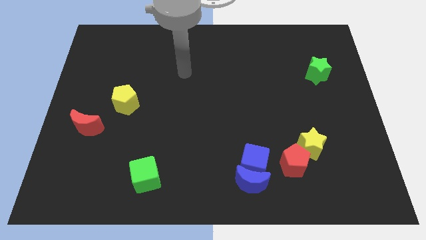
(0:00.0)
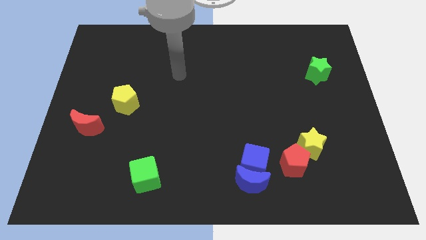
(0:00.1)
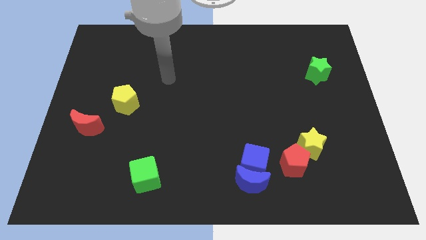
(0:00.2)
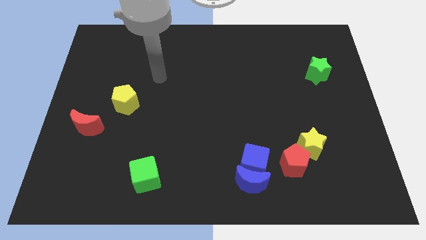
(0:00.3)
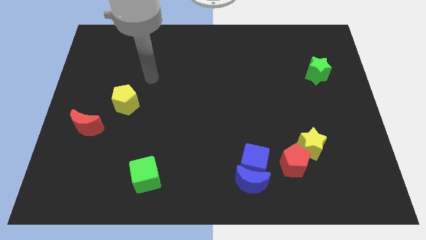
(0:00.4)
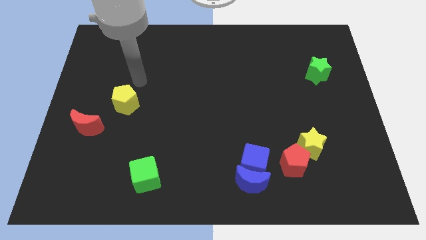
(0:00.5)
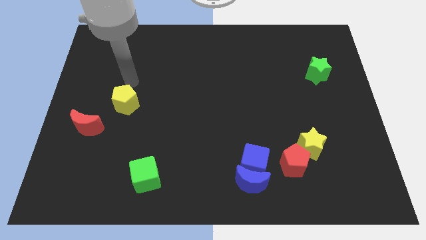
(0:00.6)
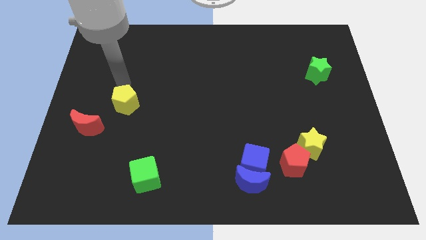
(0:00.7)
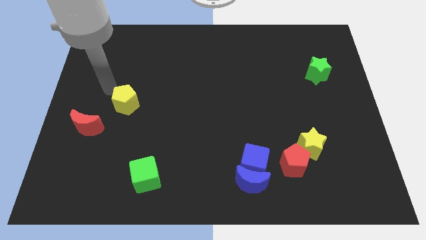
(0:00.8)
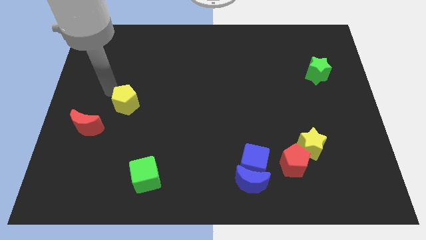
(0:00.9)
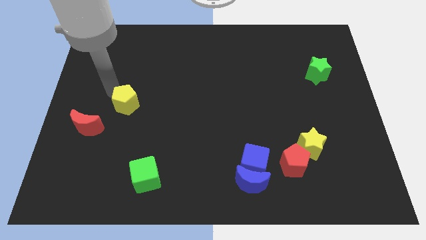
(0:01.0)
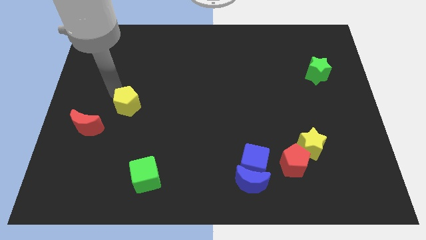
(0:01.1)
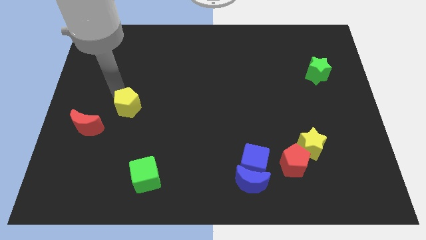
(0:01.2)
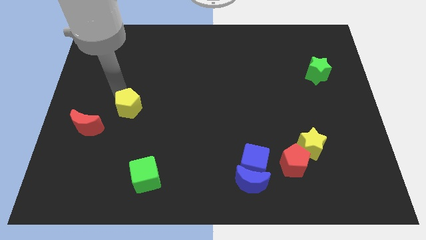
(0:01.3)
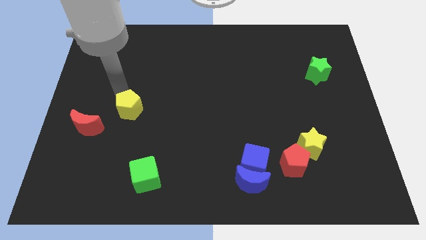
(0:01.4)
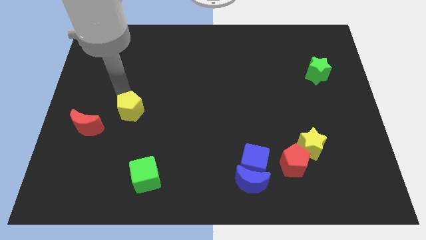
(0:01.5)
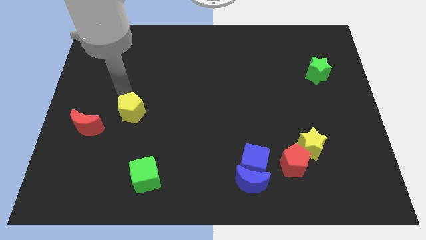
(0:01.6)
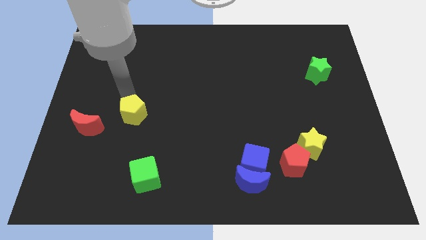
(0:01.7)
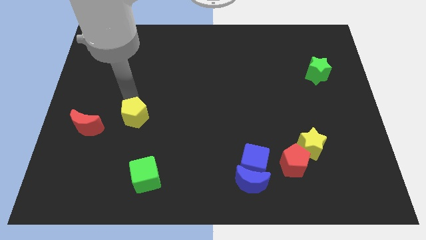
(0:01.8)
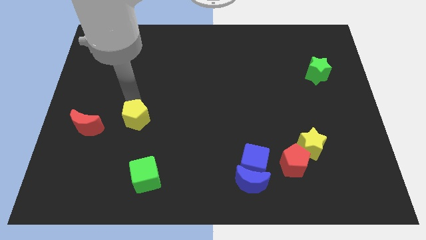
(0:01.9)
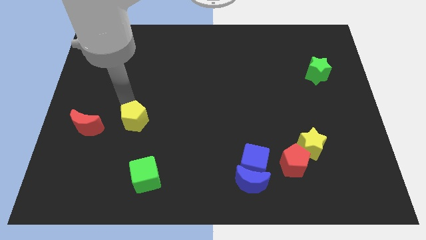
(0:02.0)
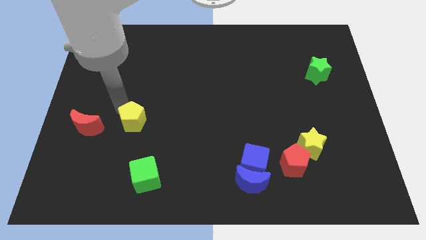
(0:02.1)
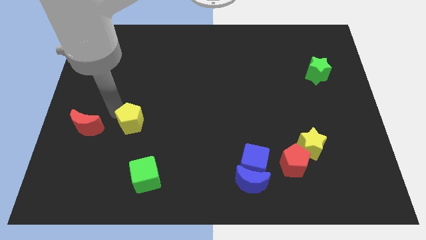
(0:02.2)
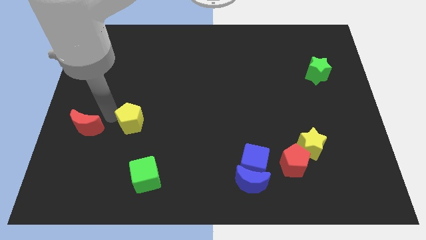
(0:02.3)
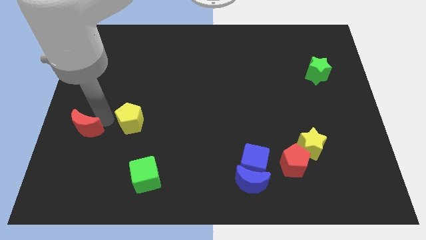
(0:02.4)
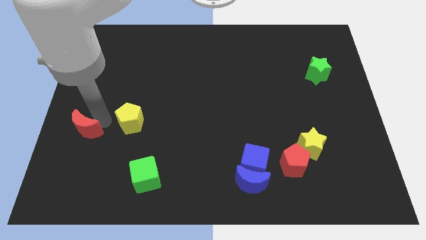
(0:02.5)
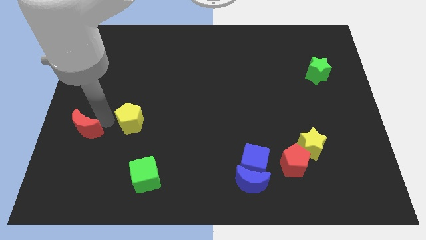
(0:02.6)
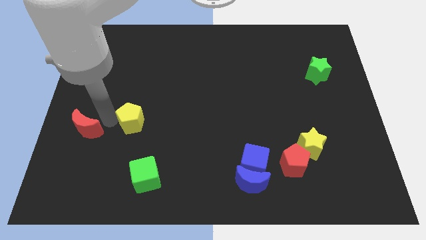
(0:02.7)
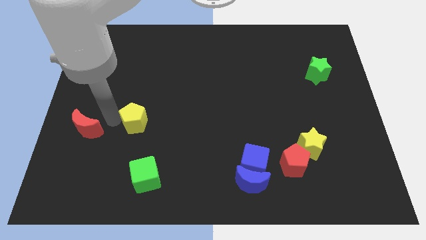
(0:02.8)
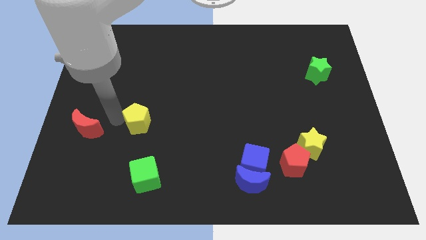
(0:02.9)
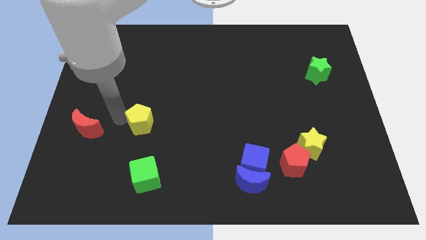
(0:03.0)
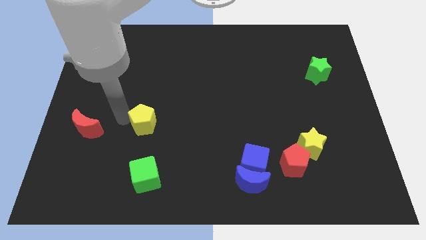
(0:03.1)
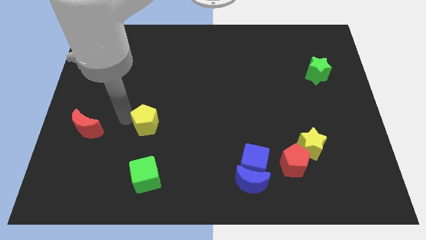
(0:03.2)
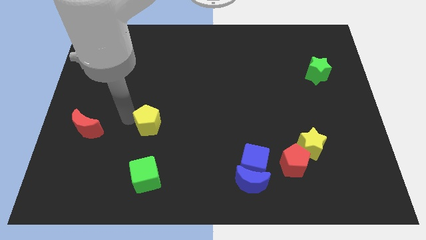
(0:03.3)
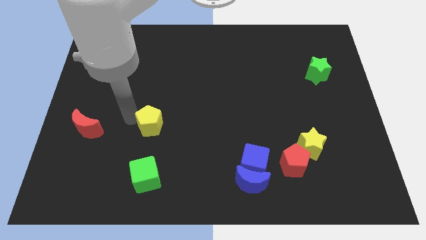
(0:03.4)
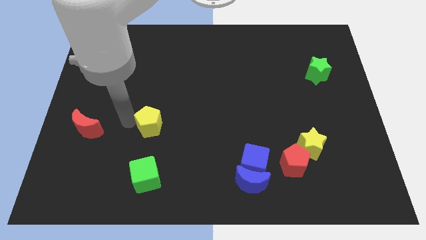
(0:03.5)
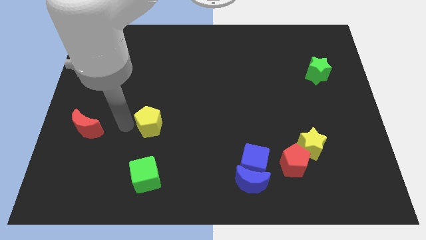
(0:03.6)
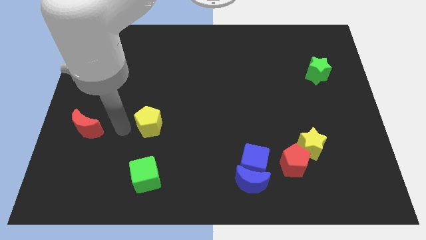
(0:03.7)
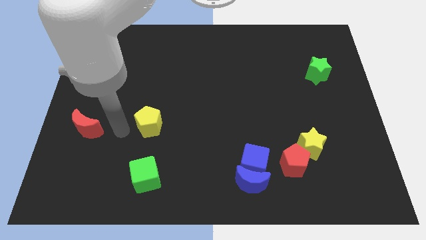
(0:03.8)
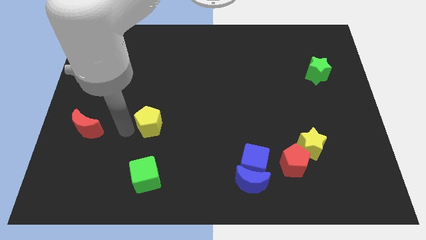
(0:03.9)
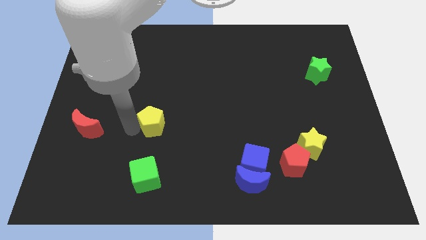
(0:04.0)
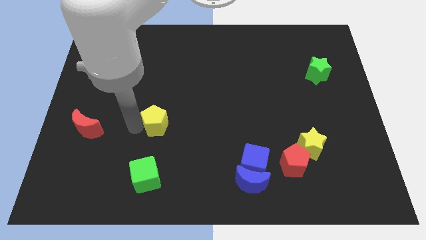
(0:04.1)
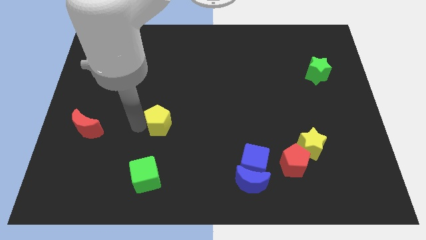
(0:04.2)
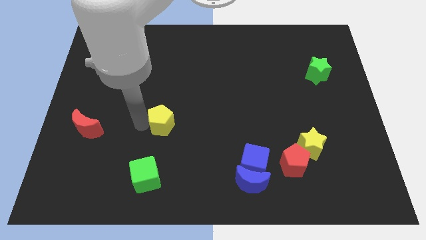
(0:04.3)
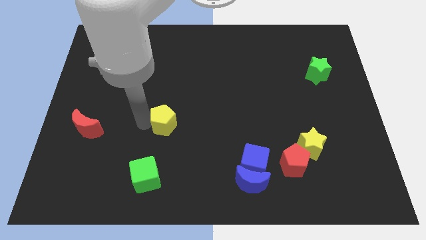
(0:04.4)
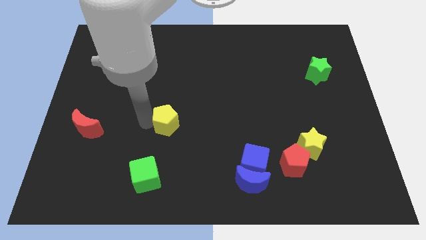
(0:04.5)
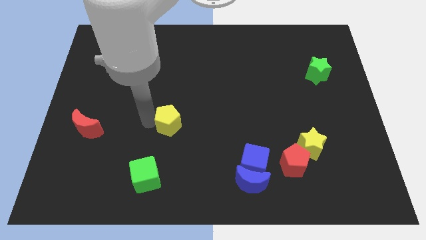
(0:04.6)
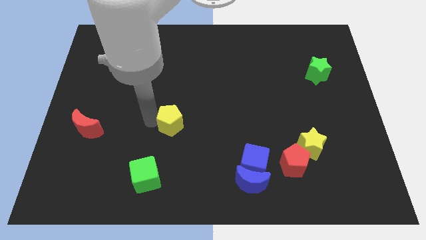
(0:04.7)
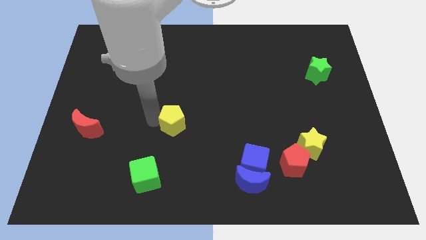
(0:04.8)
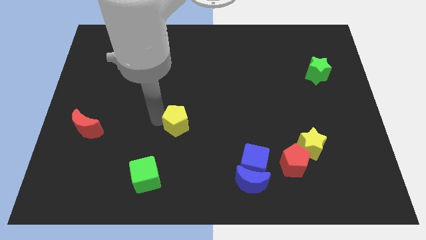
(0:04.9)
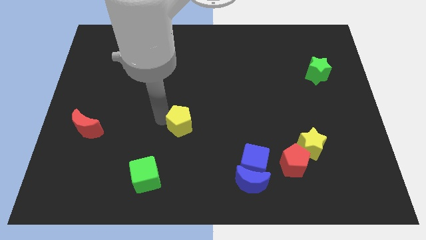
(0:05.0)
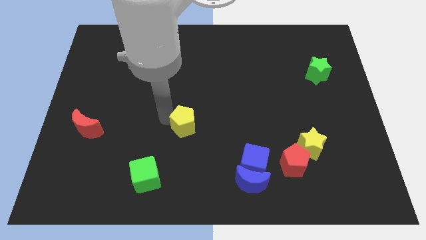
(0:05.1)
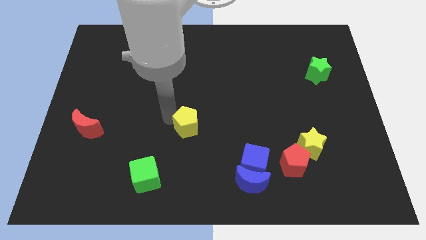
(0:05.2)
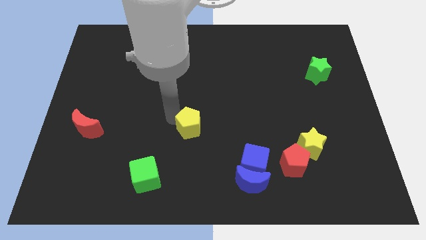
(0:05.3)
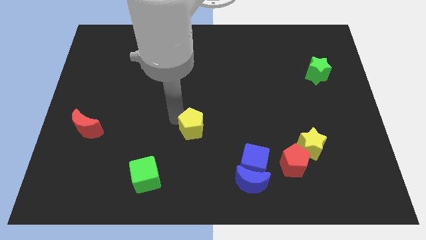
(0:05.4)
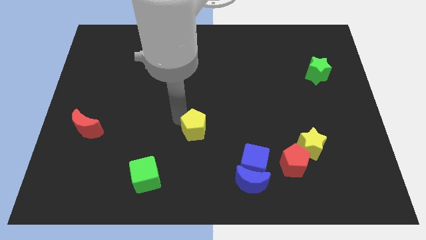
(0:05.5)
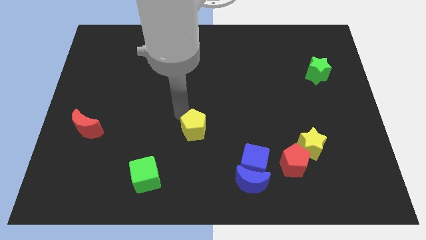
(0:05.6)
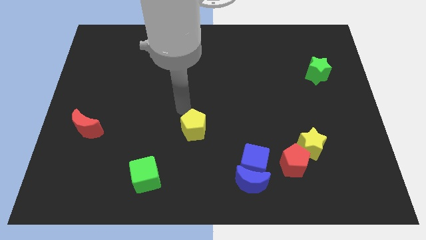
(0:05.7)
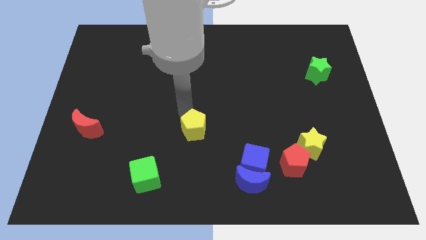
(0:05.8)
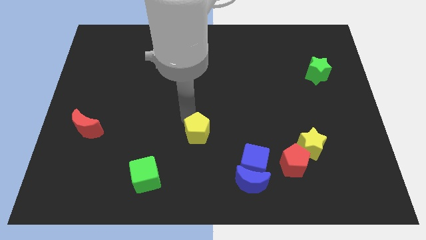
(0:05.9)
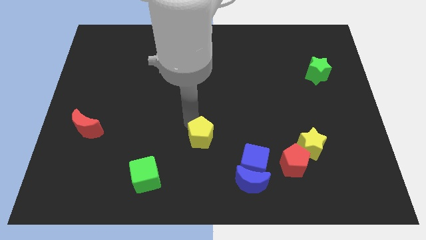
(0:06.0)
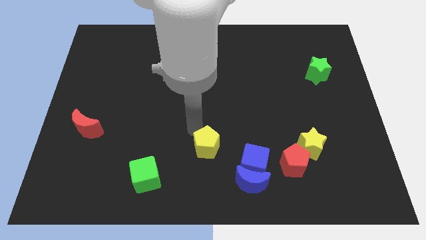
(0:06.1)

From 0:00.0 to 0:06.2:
slide the yellow pentagon to the top left side of the blue moon
